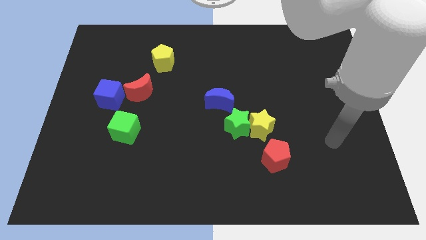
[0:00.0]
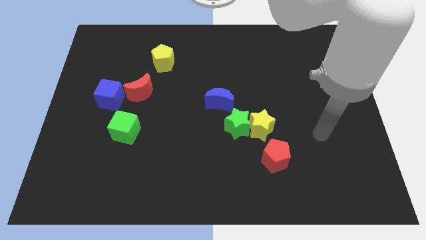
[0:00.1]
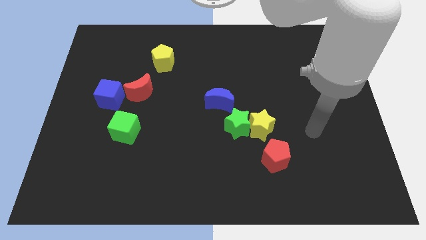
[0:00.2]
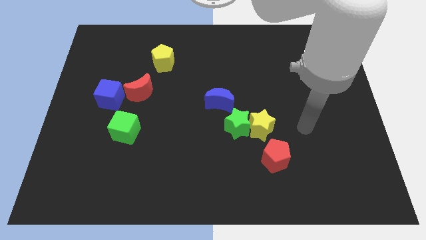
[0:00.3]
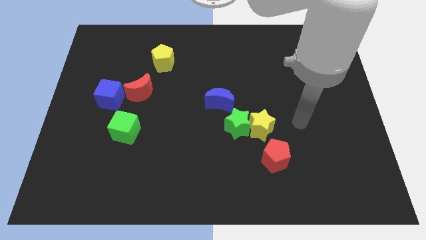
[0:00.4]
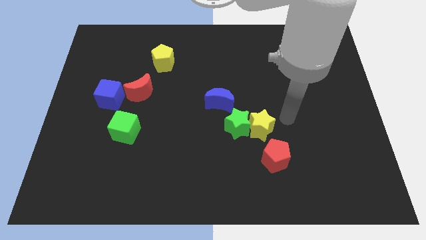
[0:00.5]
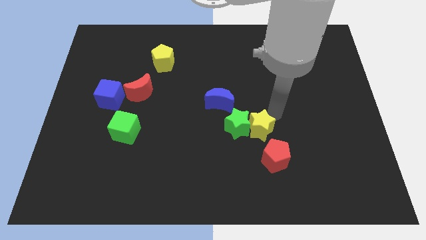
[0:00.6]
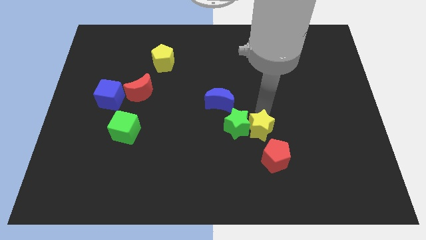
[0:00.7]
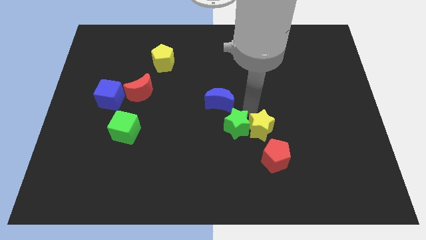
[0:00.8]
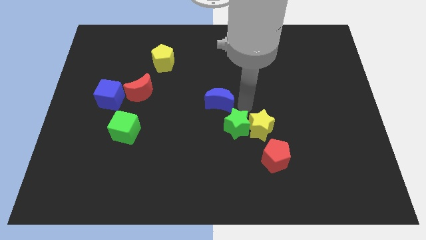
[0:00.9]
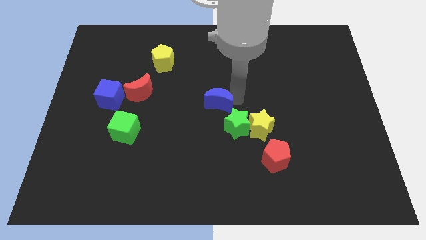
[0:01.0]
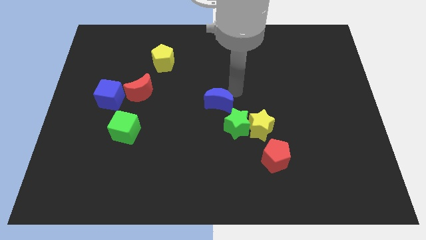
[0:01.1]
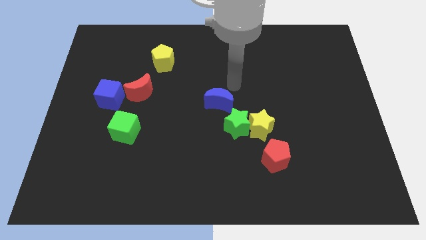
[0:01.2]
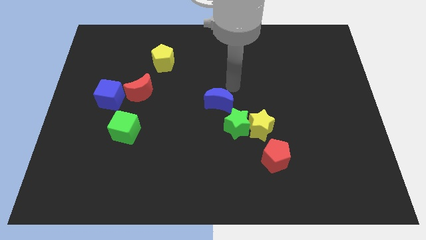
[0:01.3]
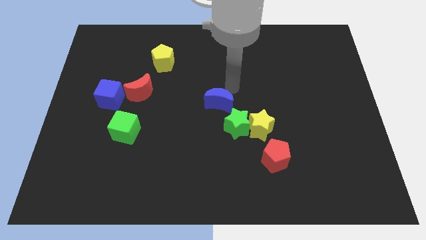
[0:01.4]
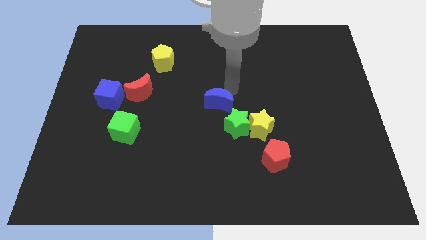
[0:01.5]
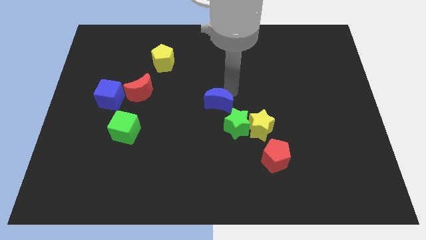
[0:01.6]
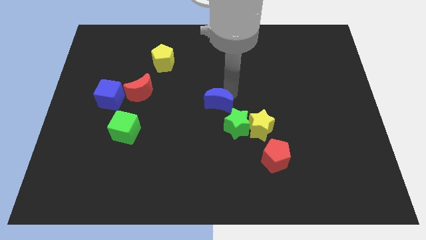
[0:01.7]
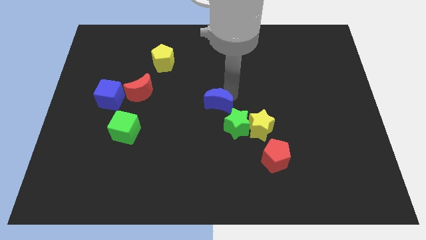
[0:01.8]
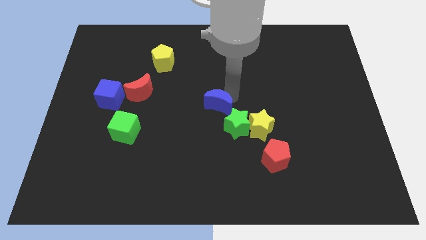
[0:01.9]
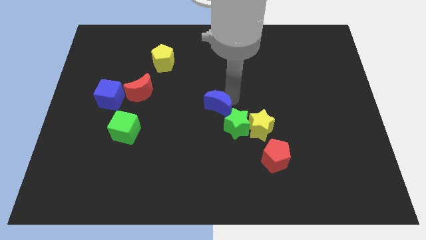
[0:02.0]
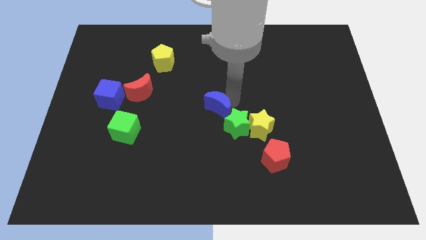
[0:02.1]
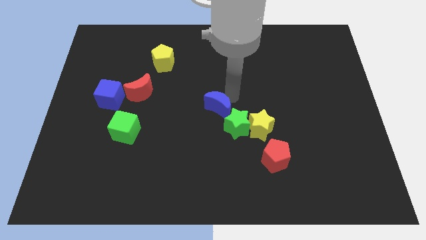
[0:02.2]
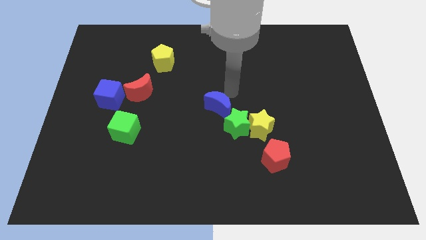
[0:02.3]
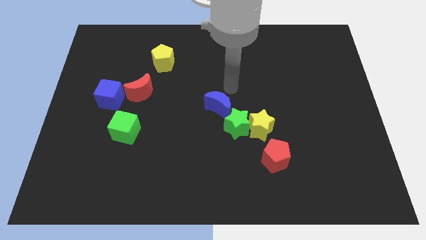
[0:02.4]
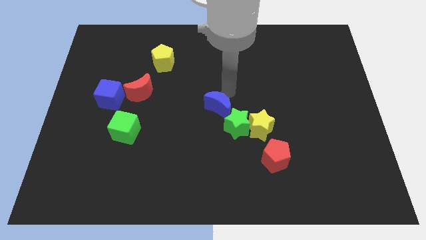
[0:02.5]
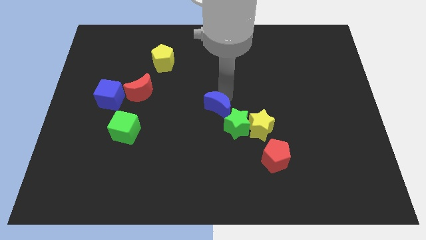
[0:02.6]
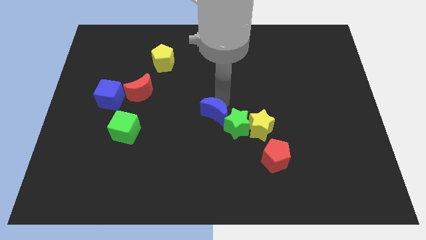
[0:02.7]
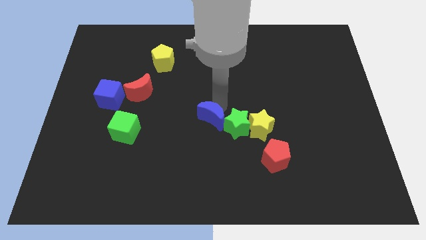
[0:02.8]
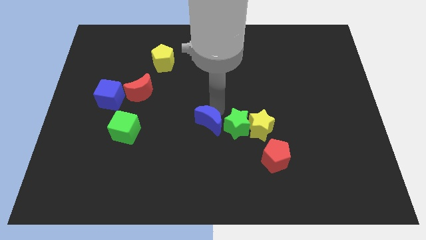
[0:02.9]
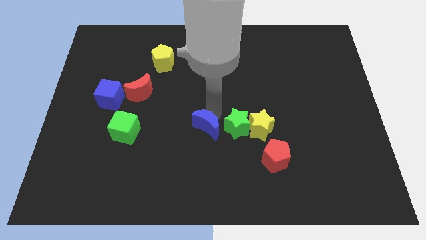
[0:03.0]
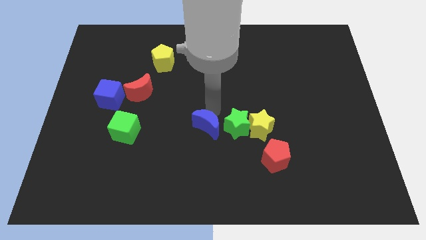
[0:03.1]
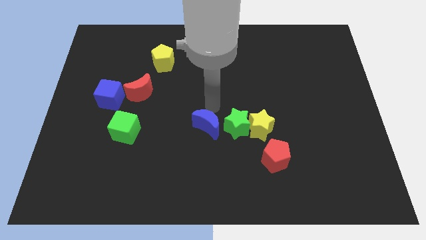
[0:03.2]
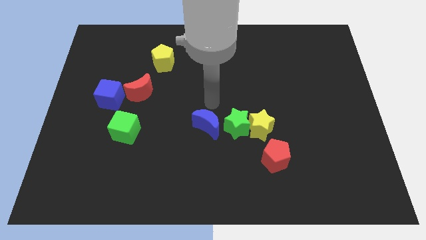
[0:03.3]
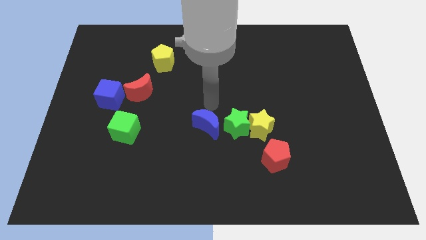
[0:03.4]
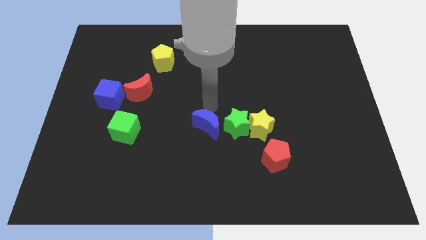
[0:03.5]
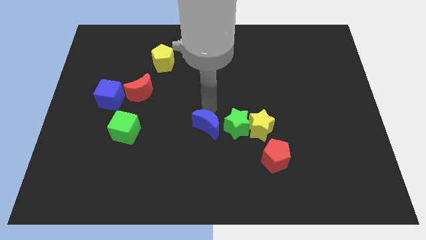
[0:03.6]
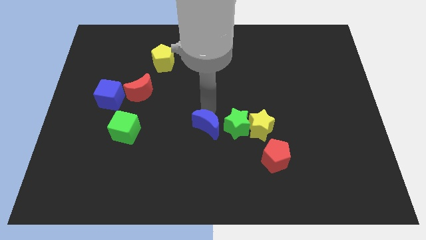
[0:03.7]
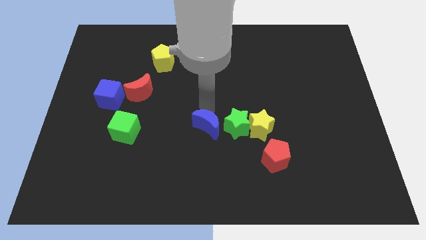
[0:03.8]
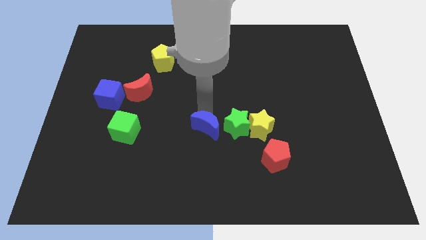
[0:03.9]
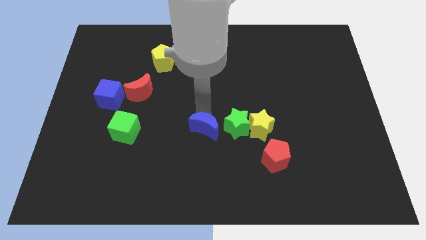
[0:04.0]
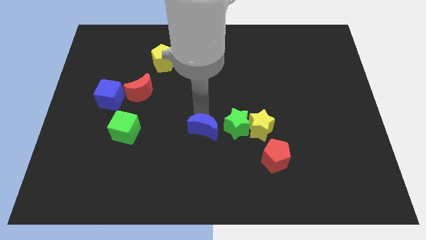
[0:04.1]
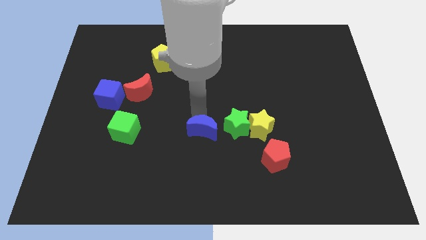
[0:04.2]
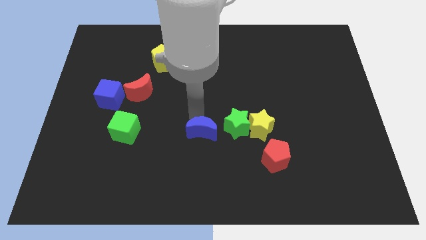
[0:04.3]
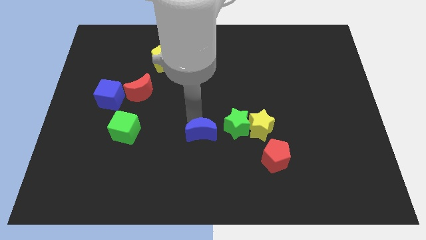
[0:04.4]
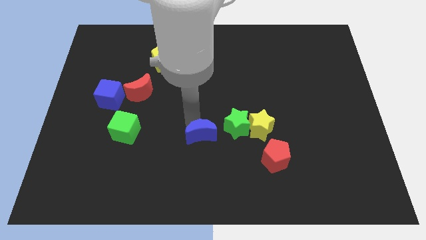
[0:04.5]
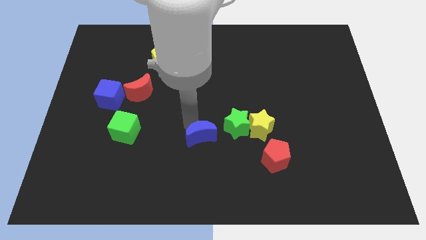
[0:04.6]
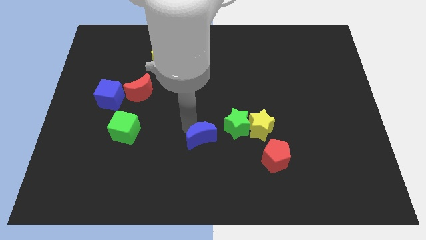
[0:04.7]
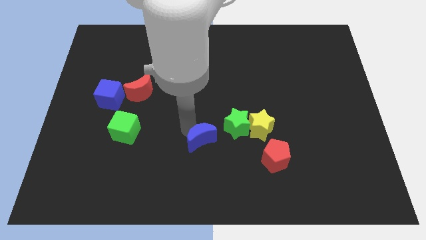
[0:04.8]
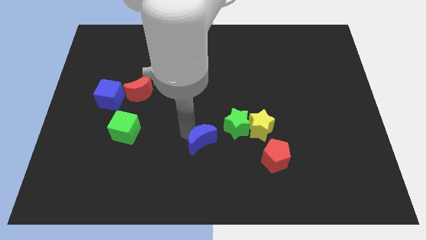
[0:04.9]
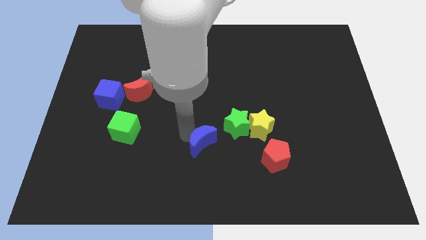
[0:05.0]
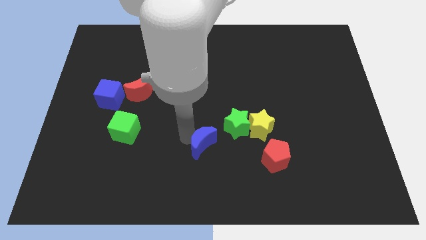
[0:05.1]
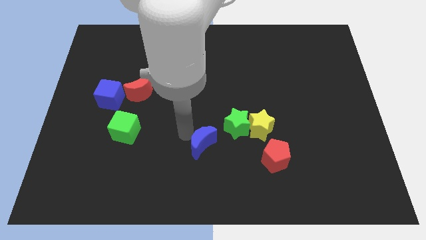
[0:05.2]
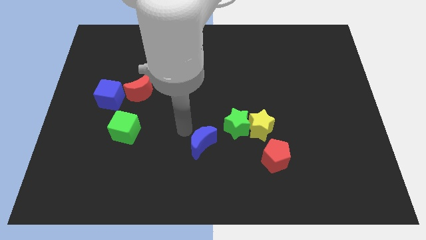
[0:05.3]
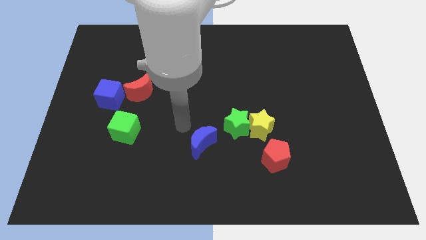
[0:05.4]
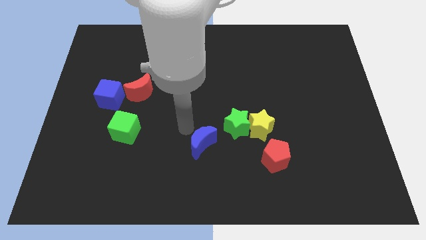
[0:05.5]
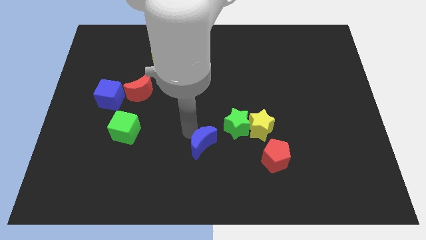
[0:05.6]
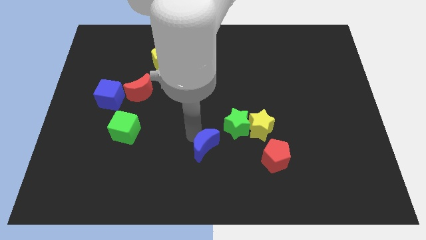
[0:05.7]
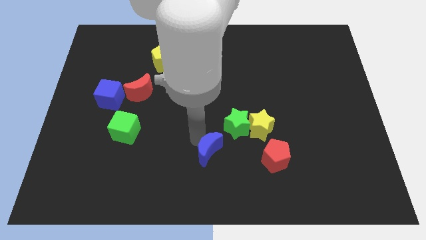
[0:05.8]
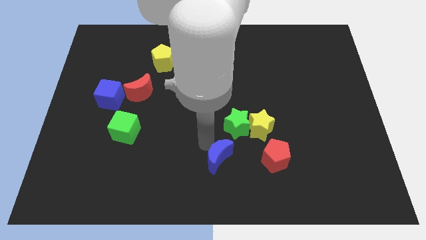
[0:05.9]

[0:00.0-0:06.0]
move the blue moon to the bottom
